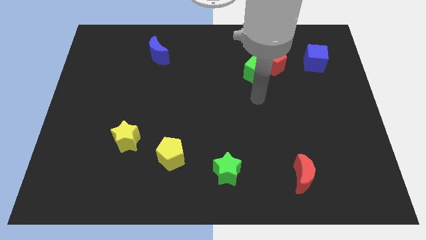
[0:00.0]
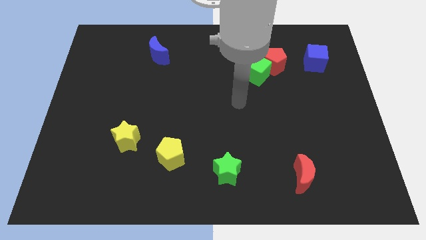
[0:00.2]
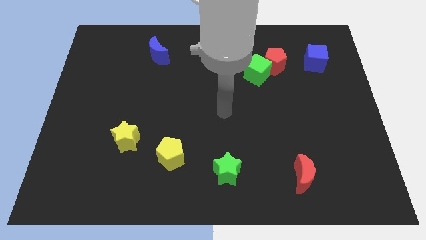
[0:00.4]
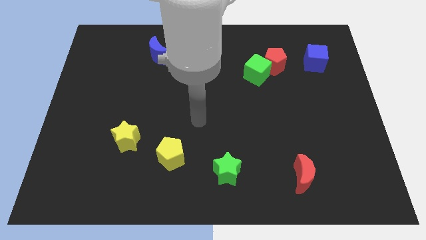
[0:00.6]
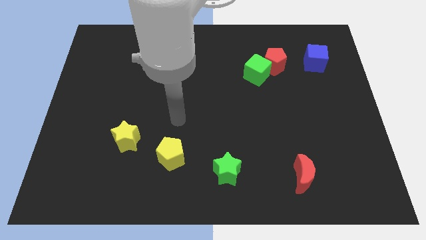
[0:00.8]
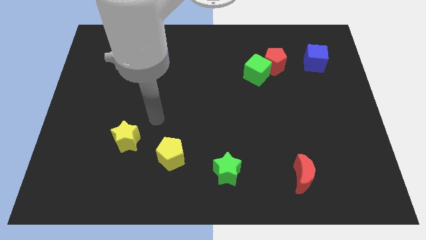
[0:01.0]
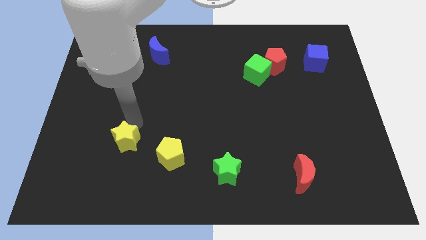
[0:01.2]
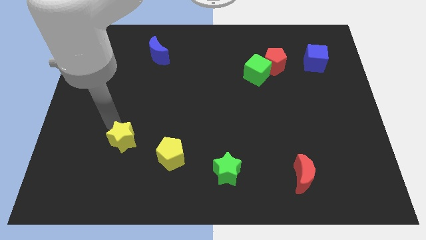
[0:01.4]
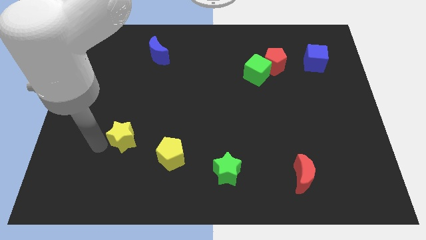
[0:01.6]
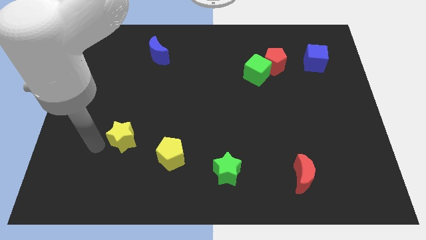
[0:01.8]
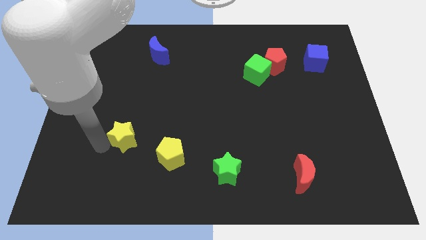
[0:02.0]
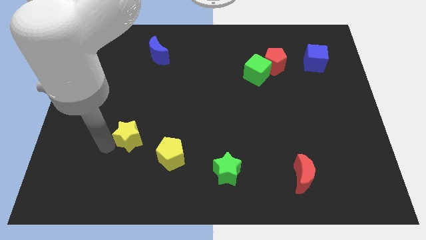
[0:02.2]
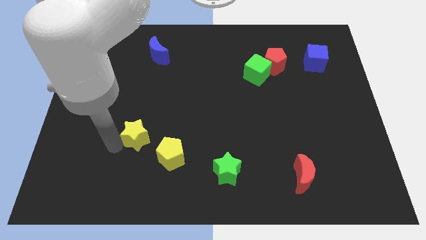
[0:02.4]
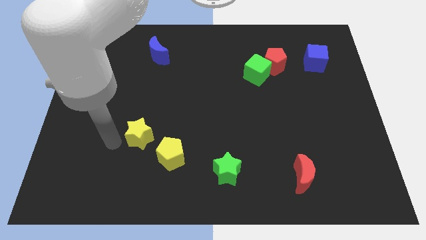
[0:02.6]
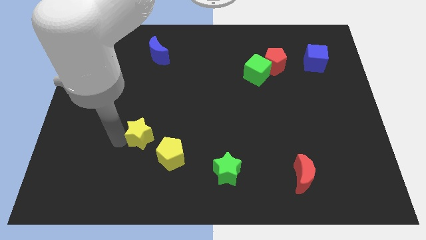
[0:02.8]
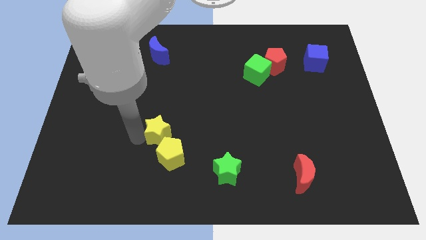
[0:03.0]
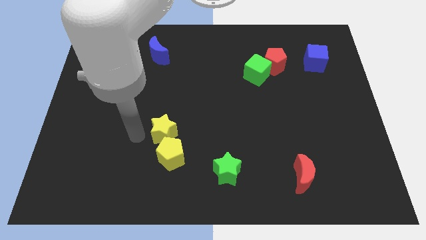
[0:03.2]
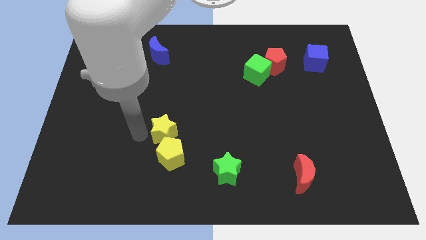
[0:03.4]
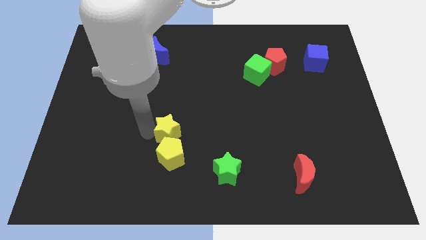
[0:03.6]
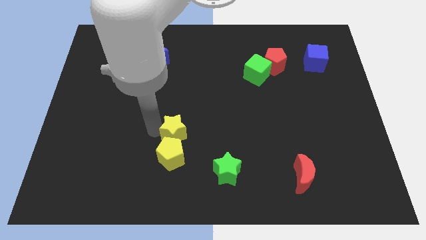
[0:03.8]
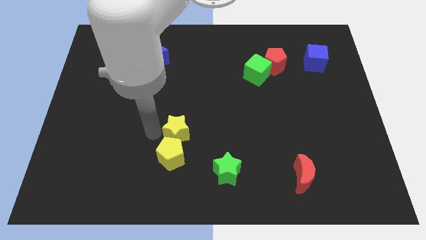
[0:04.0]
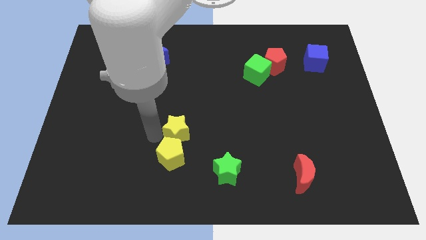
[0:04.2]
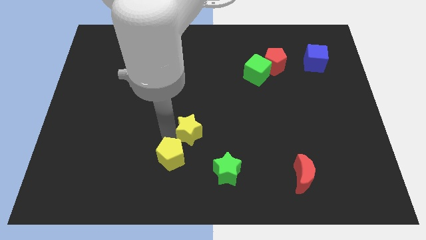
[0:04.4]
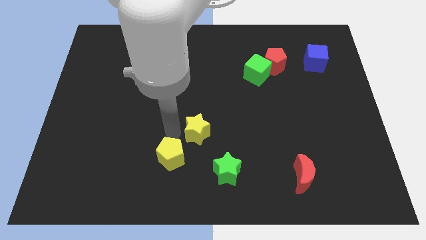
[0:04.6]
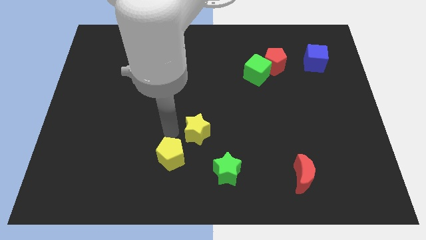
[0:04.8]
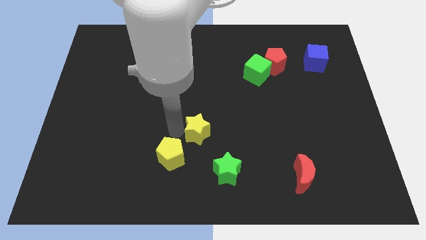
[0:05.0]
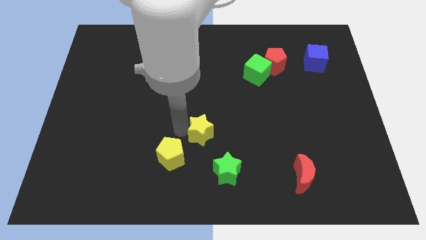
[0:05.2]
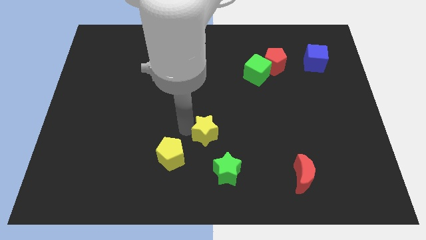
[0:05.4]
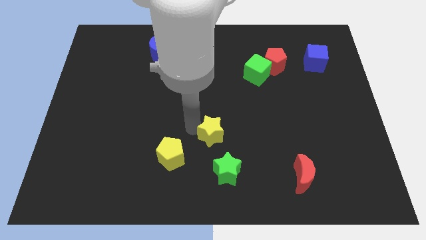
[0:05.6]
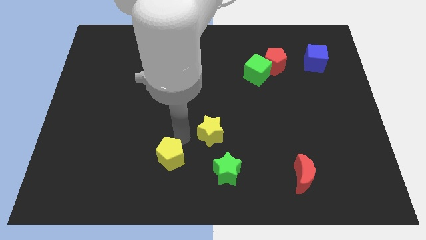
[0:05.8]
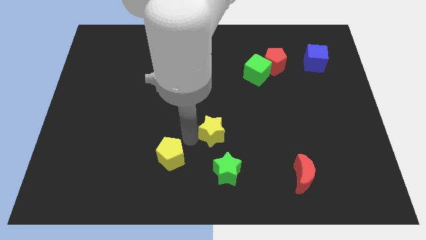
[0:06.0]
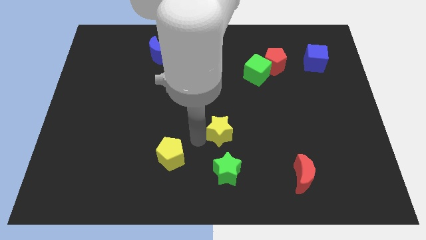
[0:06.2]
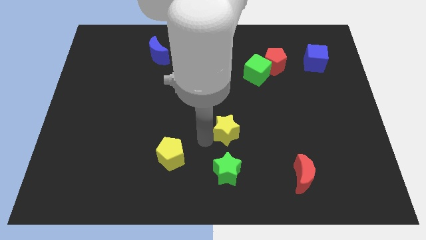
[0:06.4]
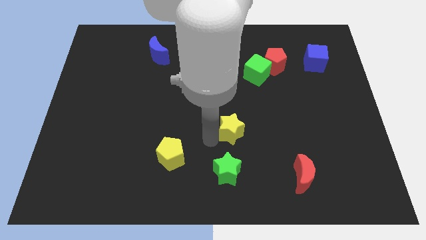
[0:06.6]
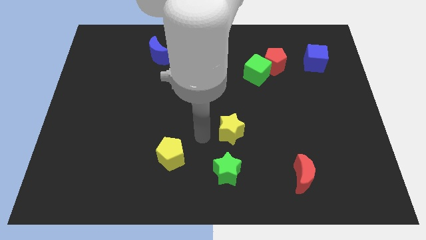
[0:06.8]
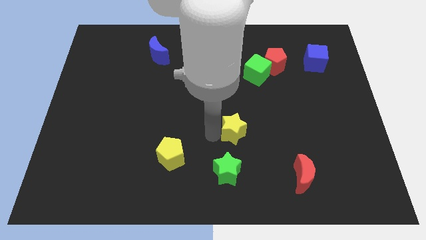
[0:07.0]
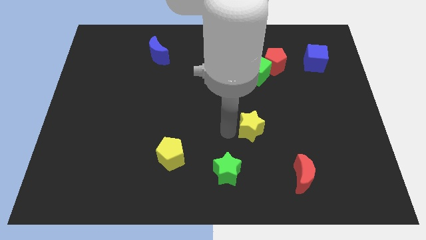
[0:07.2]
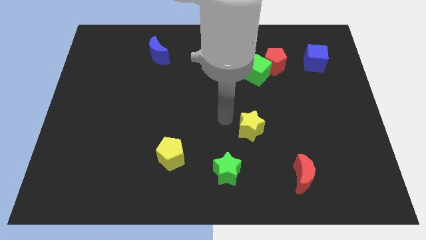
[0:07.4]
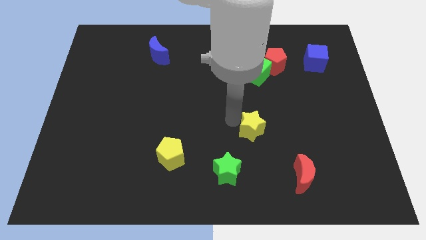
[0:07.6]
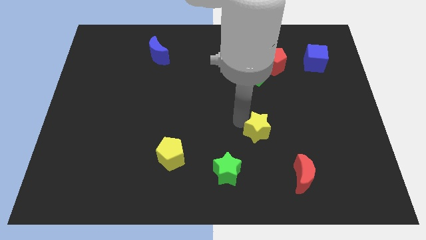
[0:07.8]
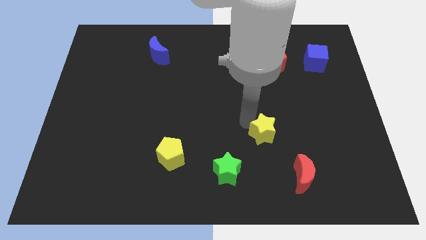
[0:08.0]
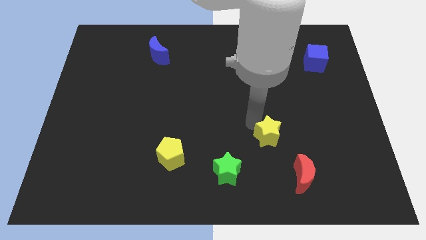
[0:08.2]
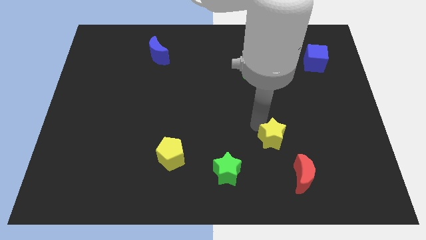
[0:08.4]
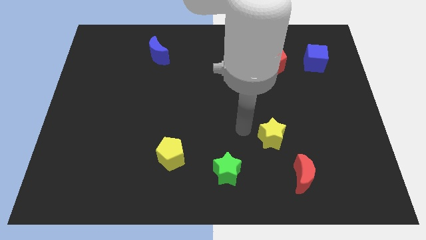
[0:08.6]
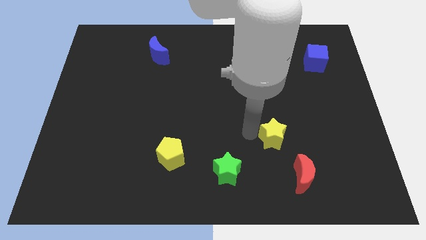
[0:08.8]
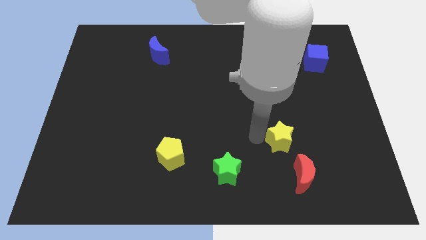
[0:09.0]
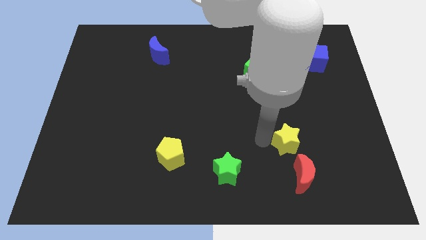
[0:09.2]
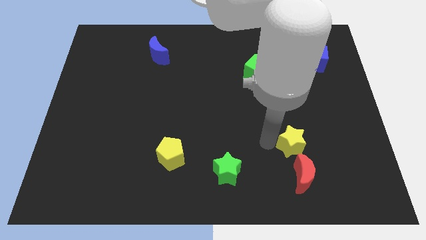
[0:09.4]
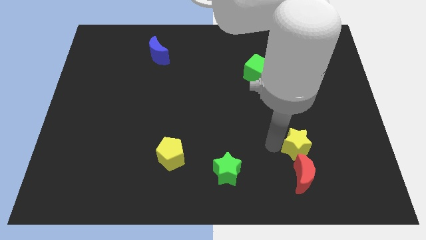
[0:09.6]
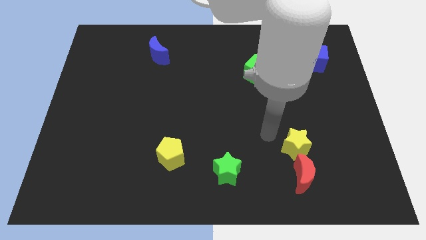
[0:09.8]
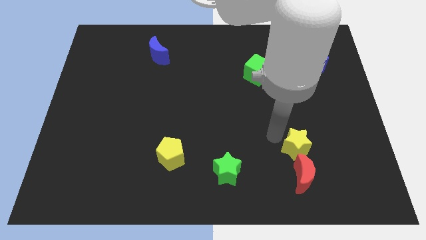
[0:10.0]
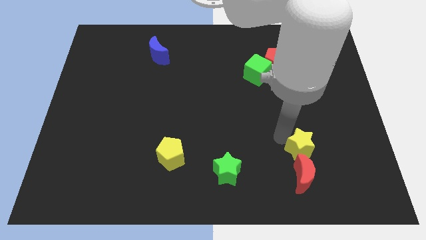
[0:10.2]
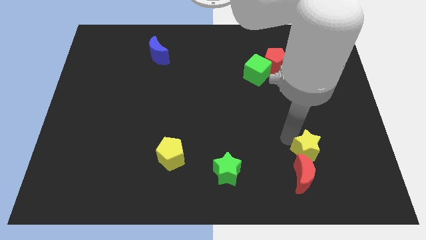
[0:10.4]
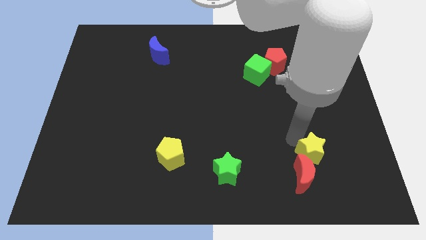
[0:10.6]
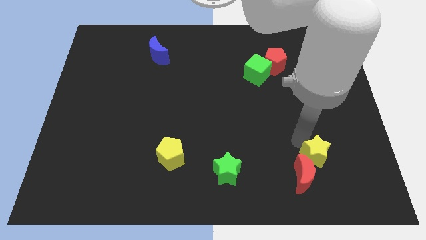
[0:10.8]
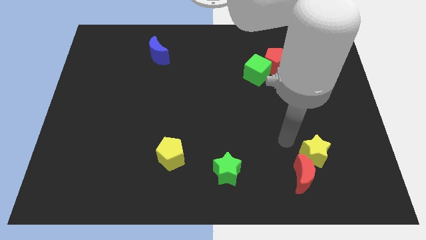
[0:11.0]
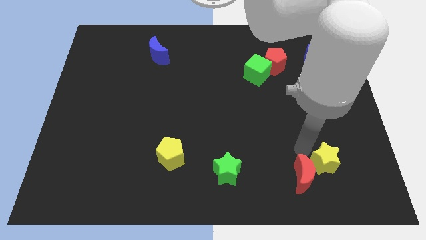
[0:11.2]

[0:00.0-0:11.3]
put the yellow star to the right side of the red moon

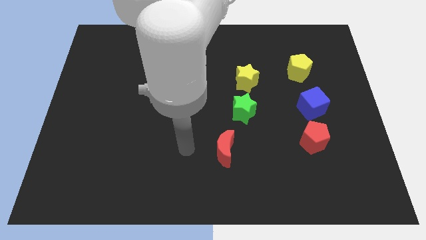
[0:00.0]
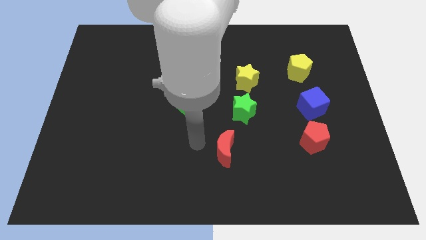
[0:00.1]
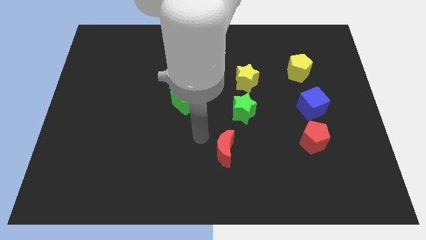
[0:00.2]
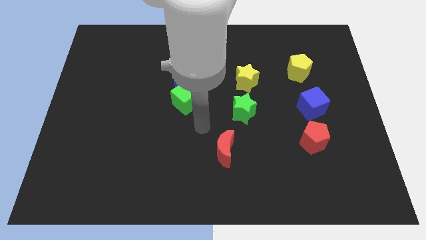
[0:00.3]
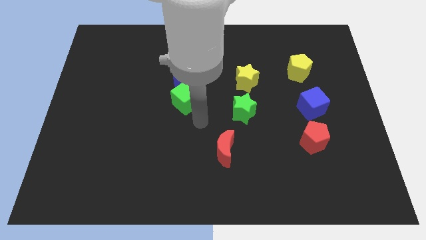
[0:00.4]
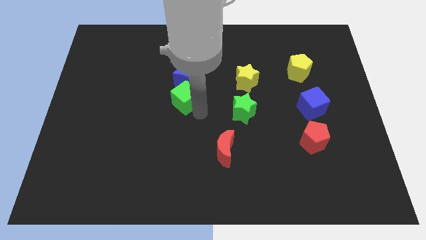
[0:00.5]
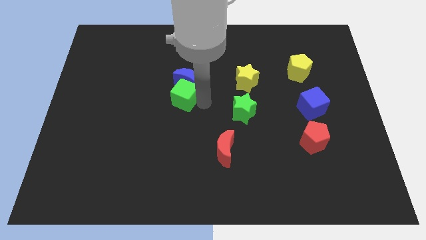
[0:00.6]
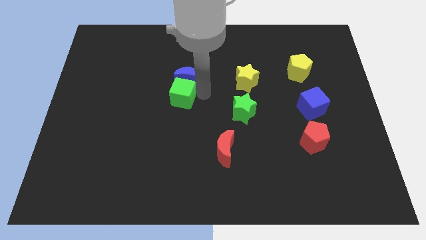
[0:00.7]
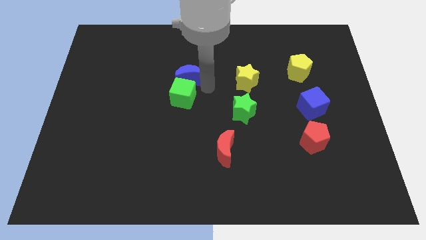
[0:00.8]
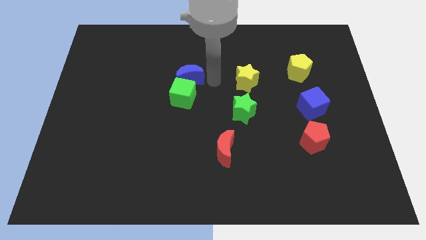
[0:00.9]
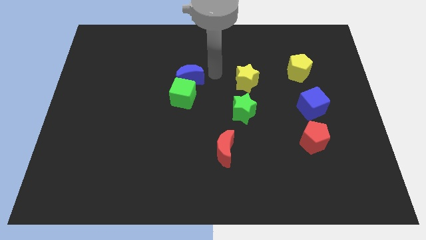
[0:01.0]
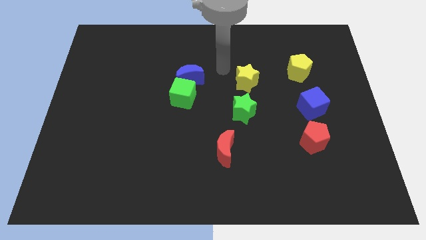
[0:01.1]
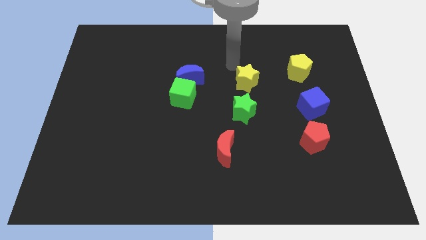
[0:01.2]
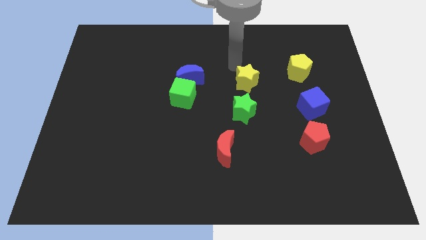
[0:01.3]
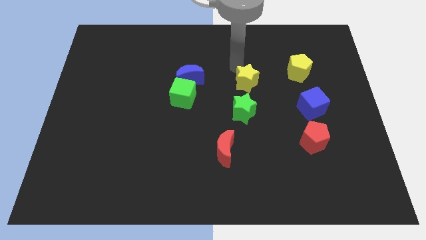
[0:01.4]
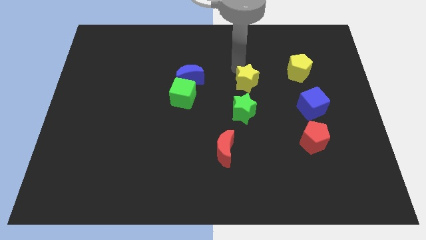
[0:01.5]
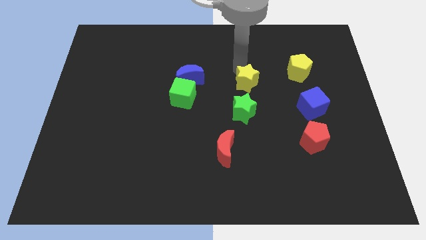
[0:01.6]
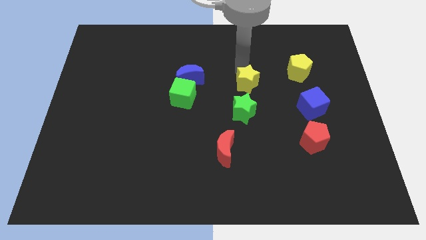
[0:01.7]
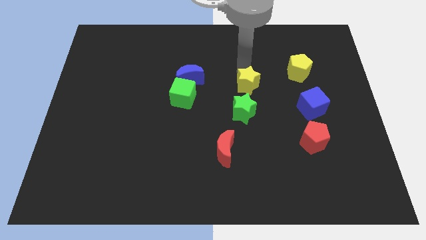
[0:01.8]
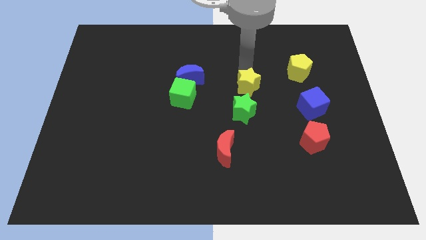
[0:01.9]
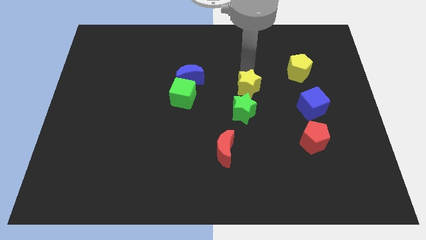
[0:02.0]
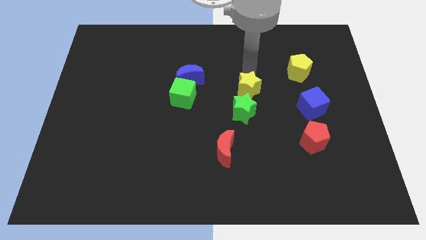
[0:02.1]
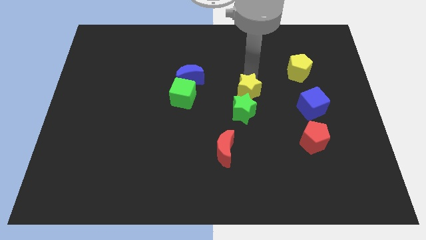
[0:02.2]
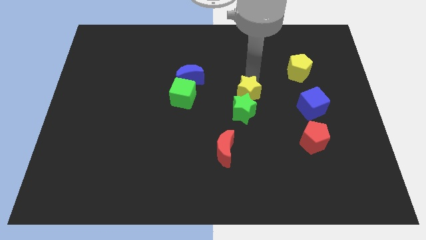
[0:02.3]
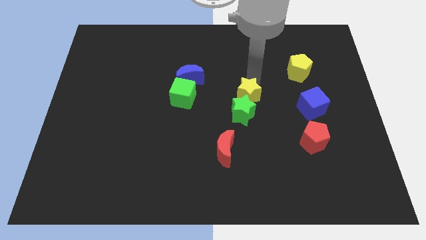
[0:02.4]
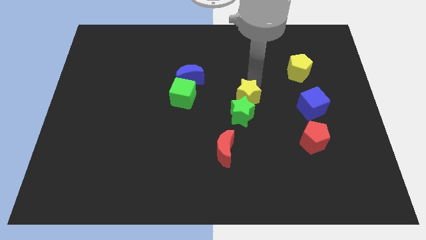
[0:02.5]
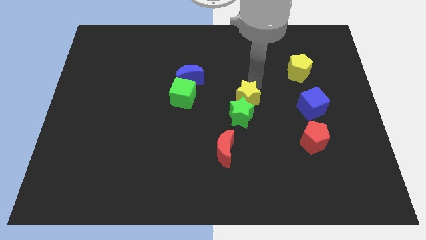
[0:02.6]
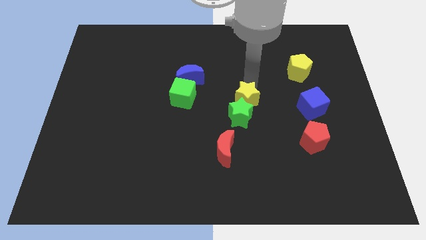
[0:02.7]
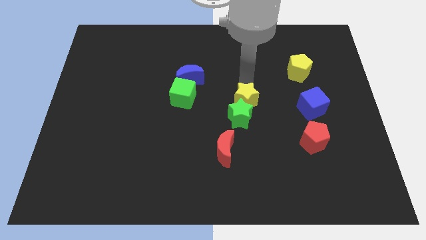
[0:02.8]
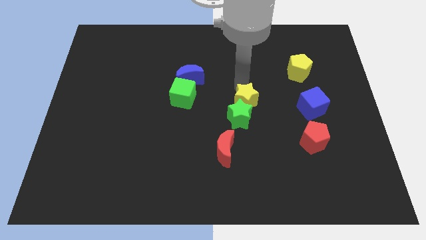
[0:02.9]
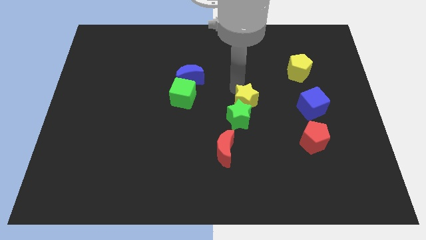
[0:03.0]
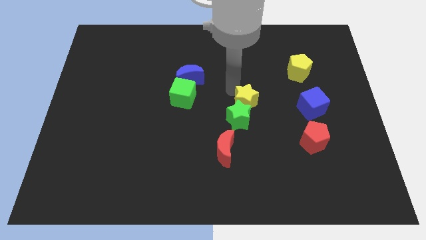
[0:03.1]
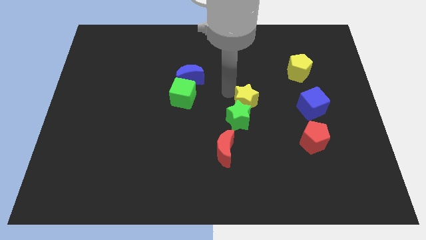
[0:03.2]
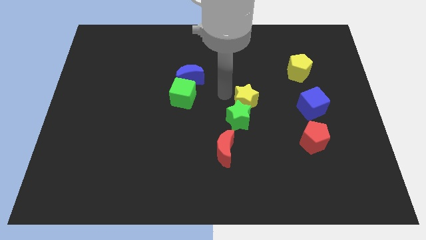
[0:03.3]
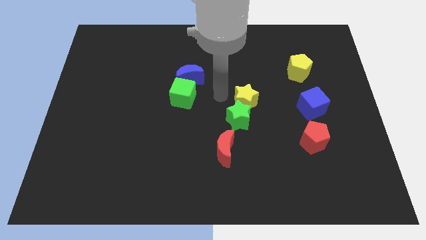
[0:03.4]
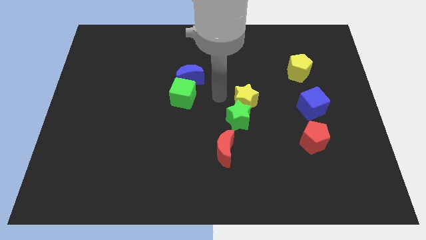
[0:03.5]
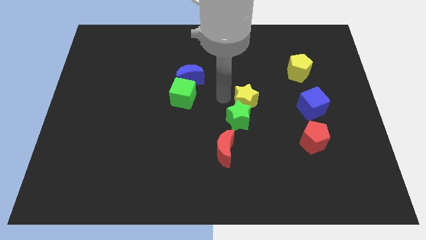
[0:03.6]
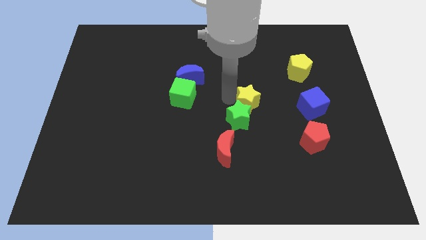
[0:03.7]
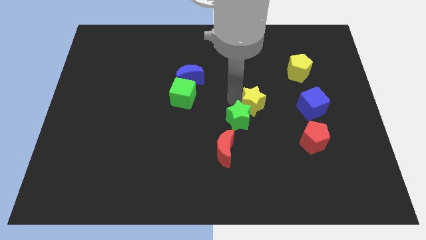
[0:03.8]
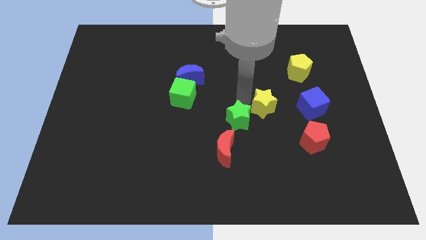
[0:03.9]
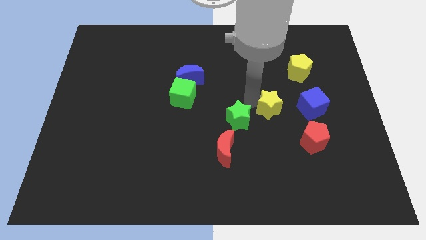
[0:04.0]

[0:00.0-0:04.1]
slide the yellow star diagonally up and to the left of the red pentagon
